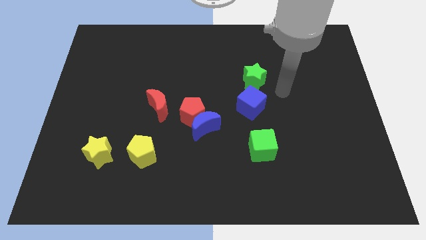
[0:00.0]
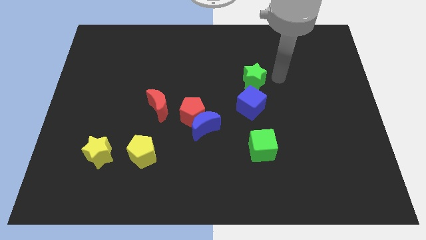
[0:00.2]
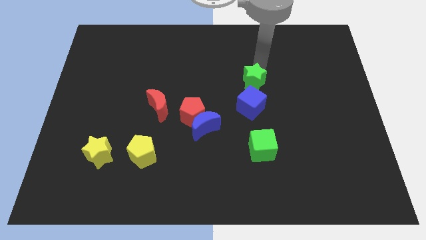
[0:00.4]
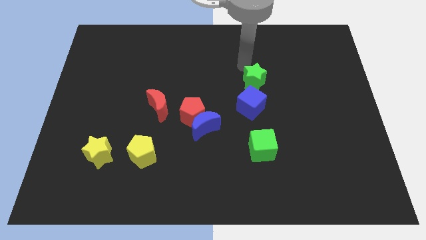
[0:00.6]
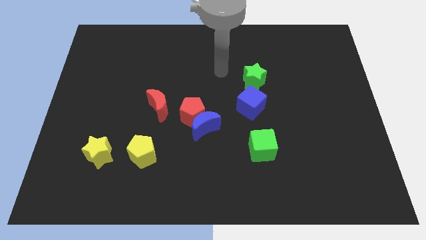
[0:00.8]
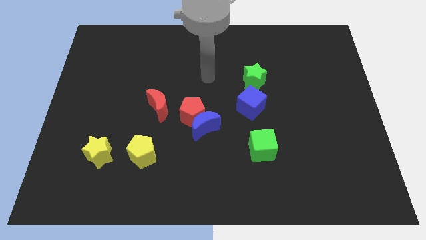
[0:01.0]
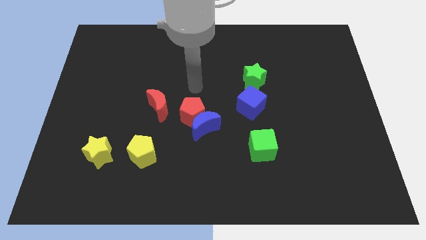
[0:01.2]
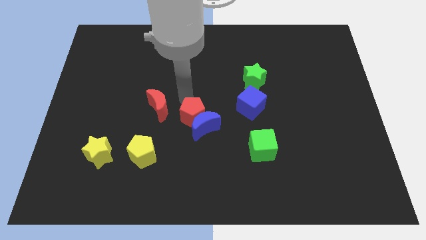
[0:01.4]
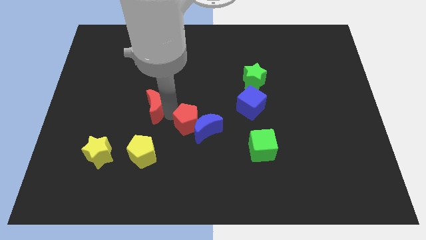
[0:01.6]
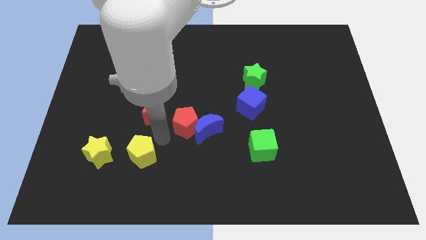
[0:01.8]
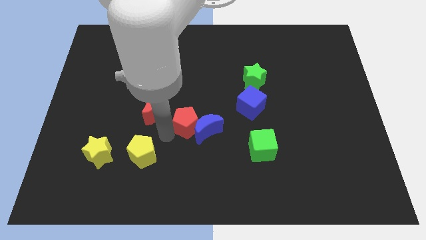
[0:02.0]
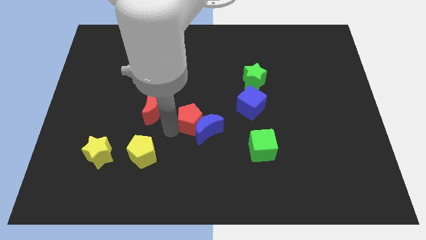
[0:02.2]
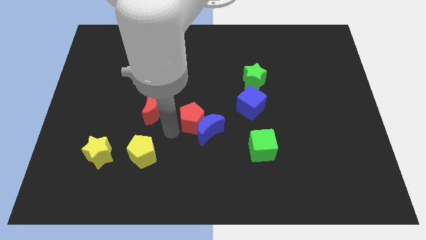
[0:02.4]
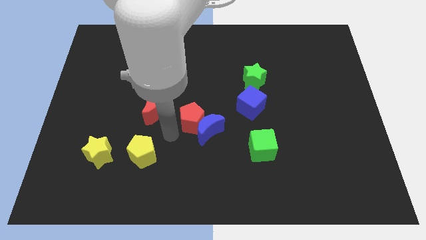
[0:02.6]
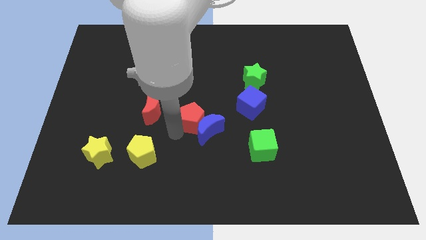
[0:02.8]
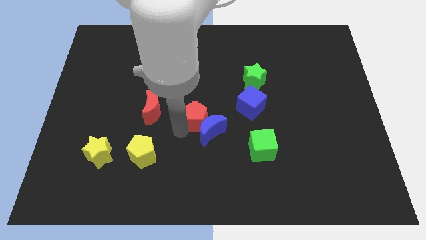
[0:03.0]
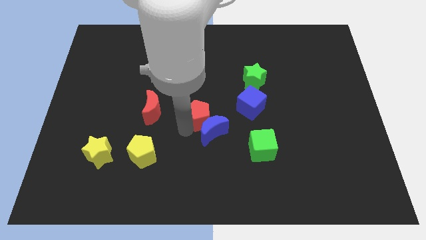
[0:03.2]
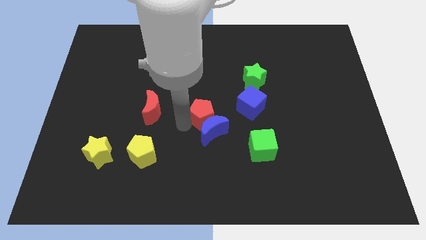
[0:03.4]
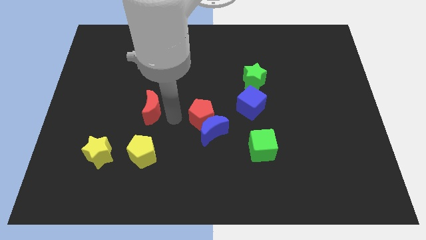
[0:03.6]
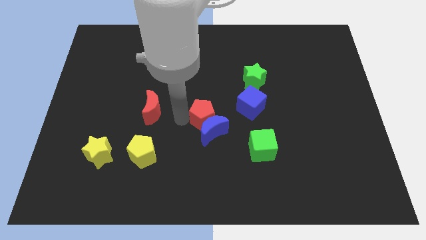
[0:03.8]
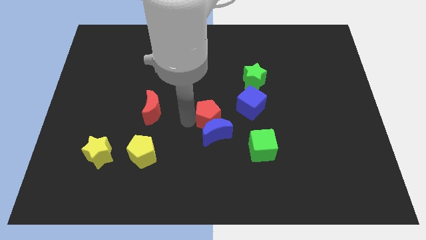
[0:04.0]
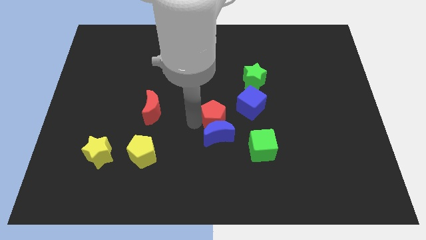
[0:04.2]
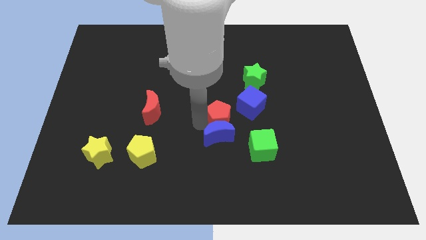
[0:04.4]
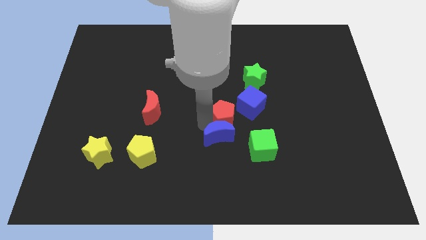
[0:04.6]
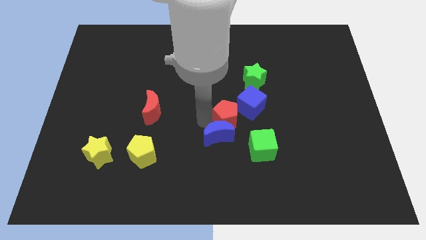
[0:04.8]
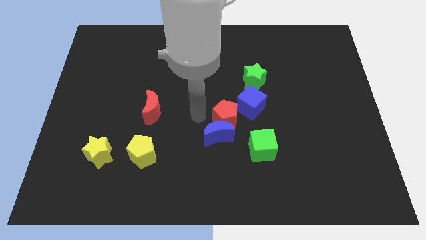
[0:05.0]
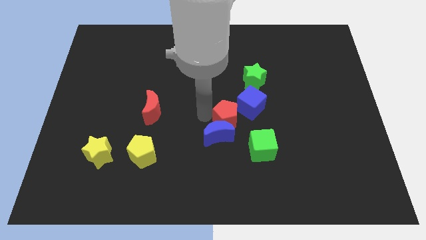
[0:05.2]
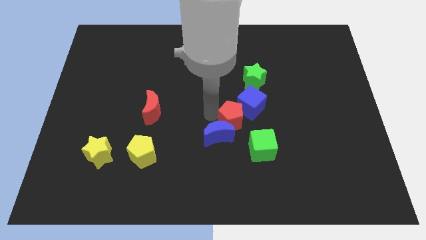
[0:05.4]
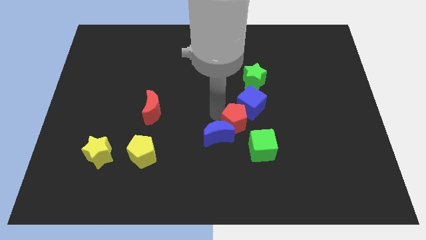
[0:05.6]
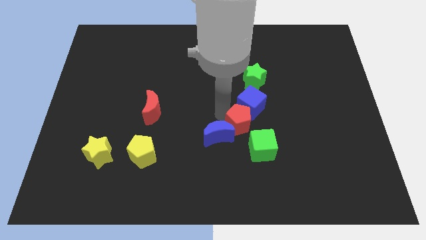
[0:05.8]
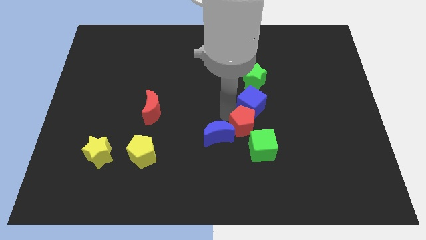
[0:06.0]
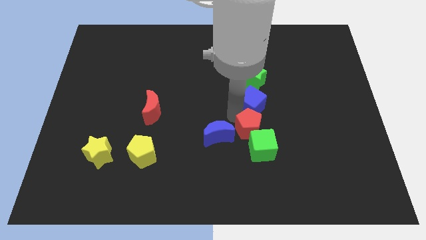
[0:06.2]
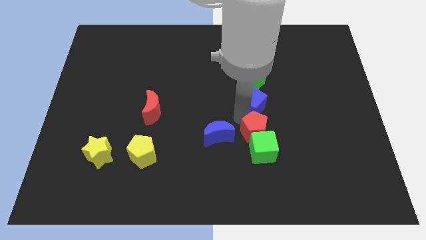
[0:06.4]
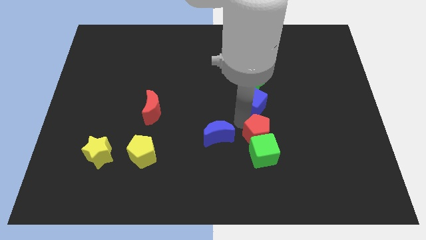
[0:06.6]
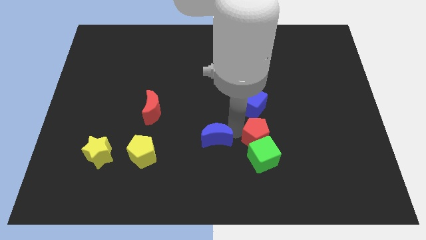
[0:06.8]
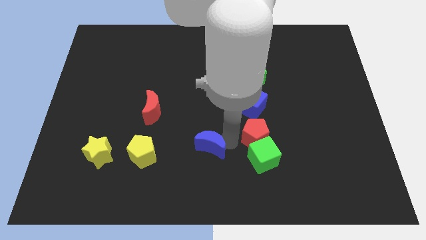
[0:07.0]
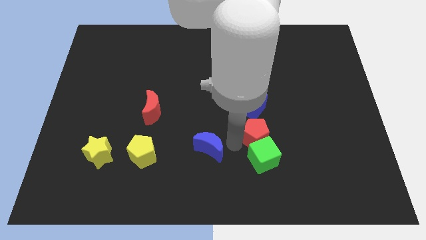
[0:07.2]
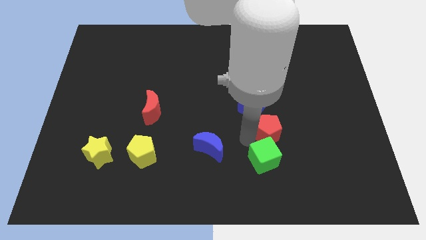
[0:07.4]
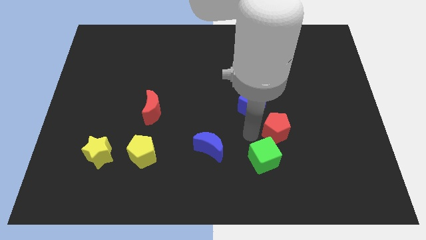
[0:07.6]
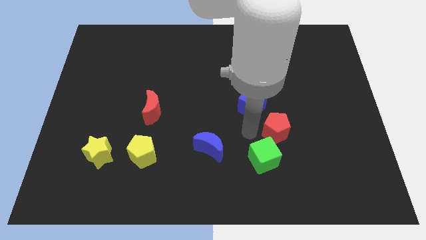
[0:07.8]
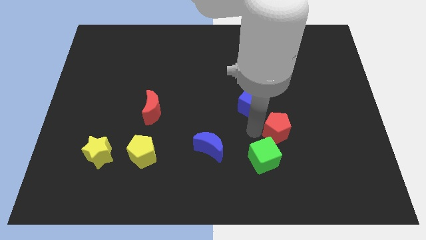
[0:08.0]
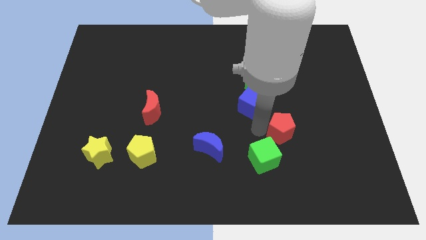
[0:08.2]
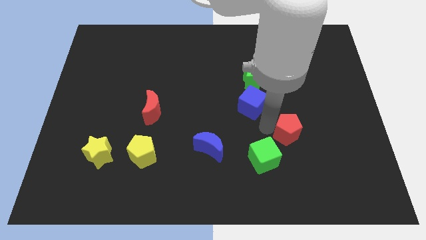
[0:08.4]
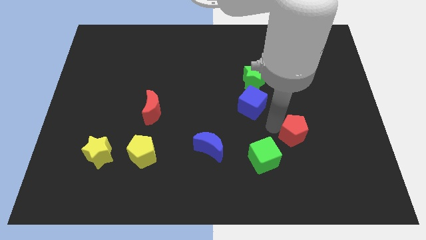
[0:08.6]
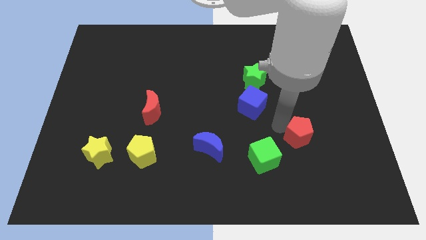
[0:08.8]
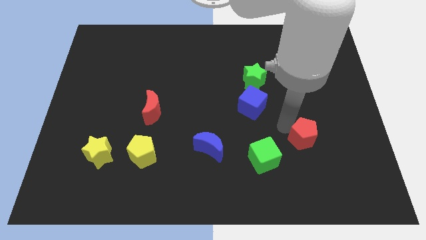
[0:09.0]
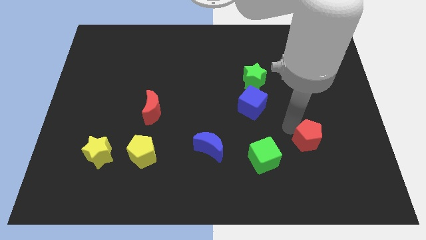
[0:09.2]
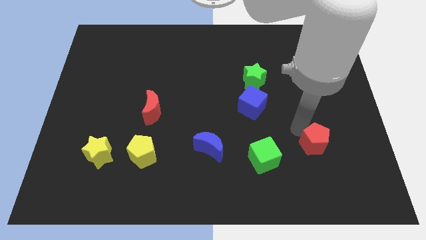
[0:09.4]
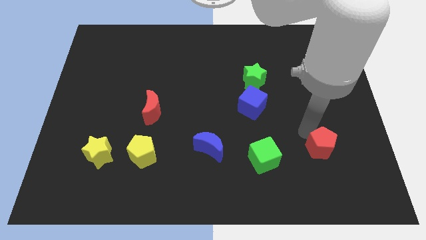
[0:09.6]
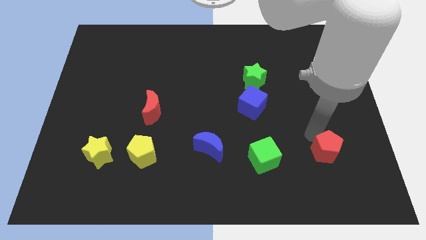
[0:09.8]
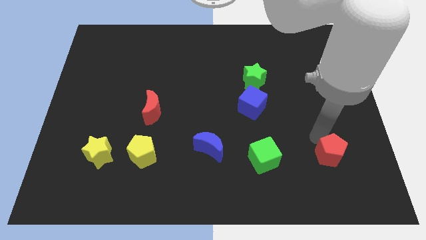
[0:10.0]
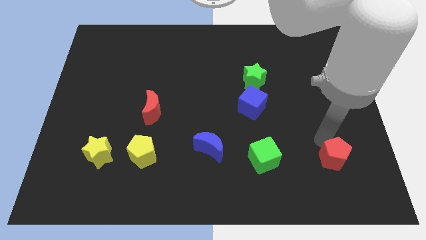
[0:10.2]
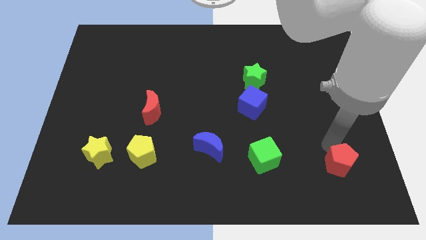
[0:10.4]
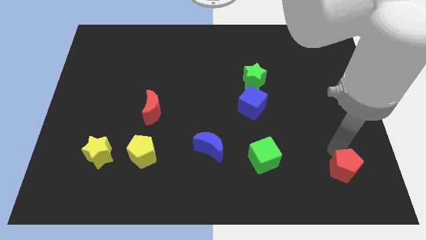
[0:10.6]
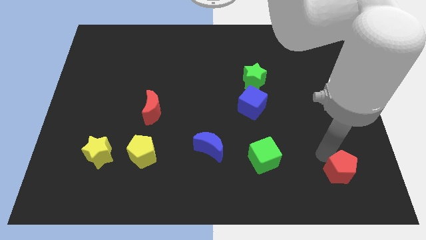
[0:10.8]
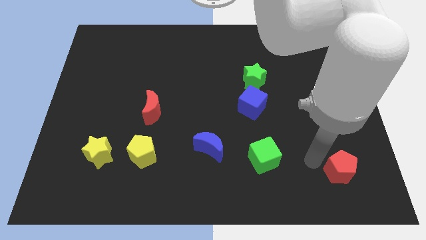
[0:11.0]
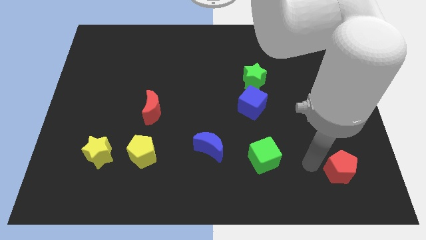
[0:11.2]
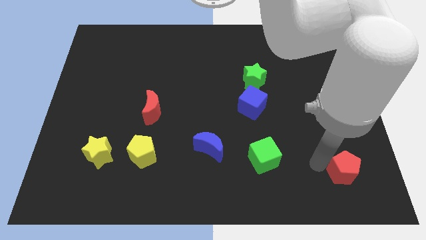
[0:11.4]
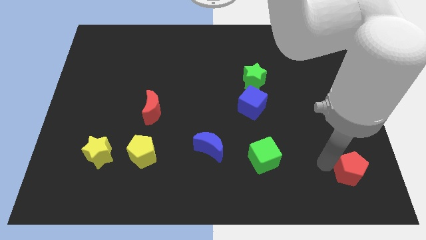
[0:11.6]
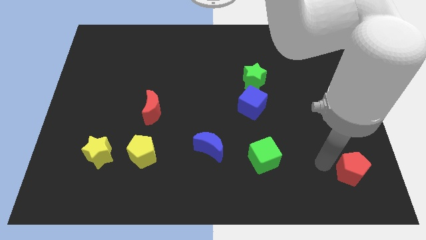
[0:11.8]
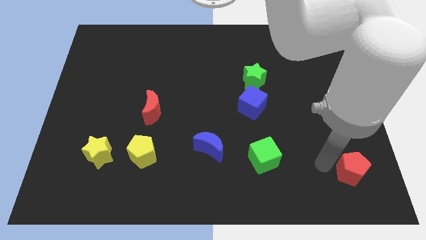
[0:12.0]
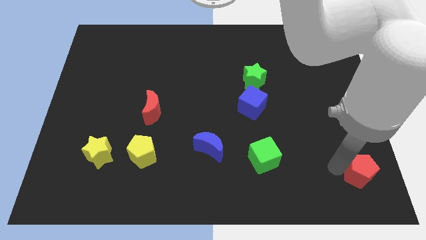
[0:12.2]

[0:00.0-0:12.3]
move the red pentagon to the bottom right corner

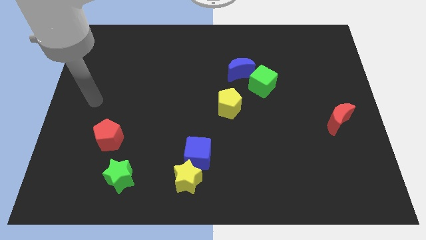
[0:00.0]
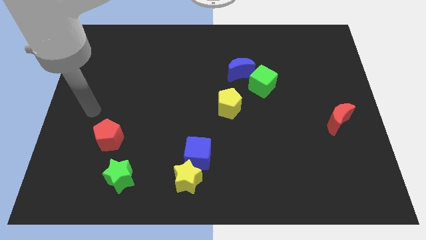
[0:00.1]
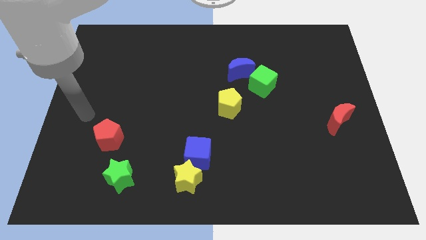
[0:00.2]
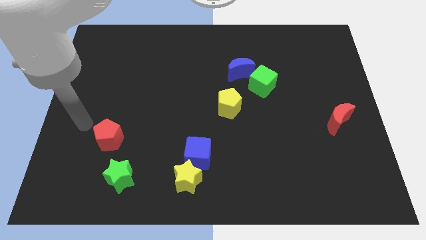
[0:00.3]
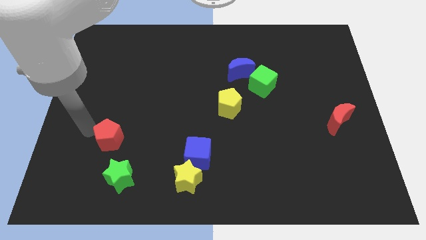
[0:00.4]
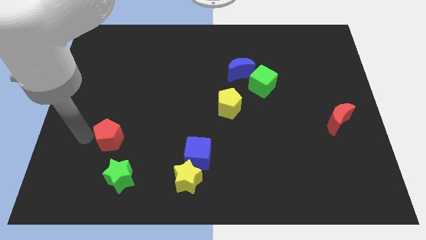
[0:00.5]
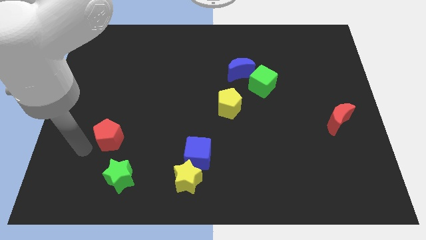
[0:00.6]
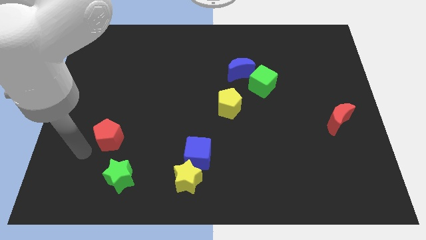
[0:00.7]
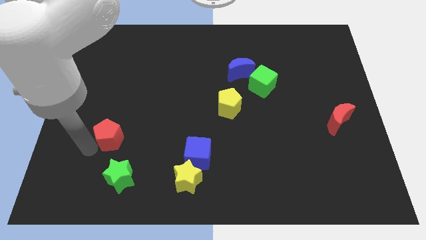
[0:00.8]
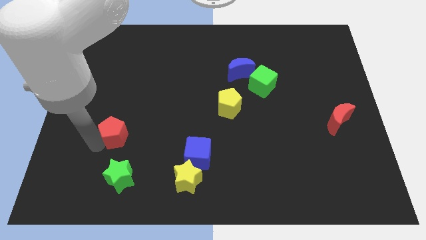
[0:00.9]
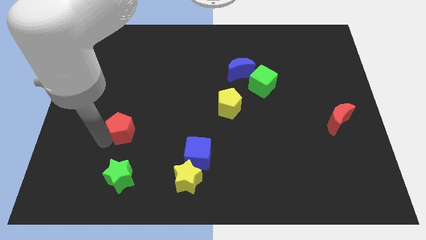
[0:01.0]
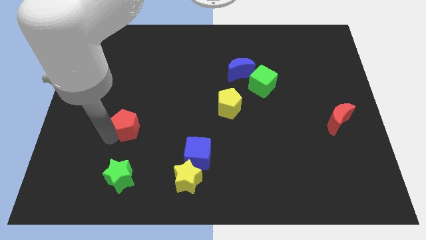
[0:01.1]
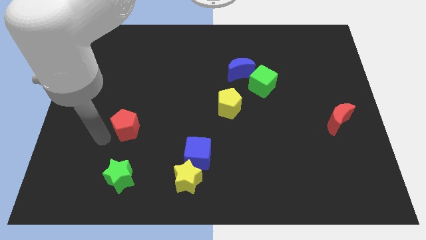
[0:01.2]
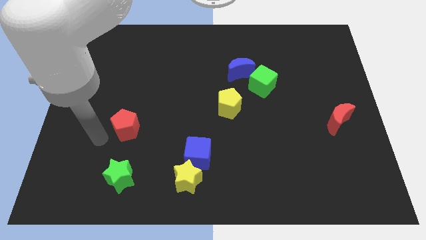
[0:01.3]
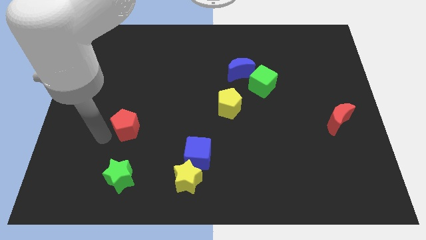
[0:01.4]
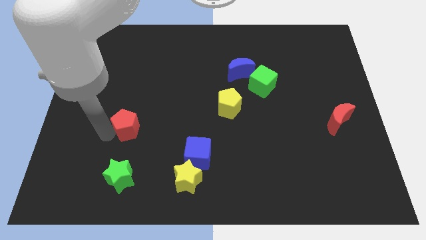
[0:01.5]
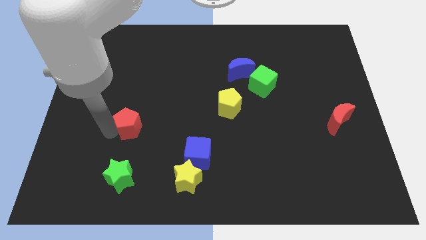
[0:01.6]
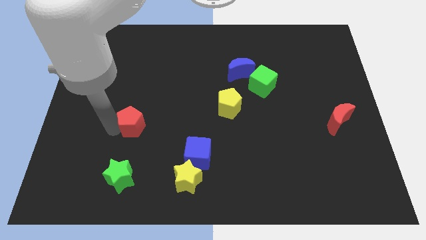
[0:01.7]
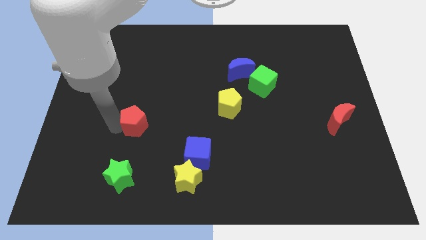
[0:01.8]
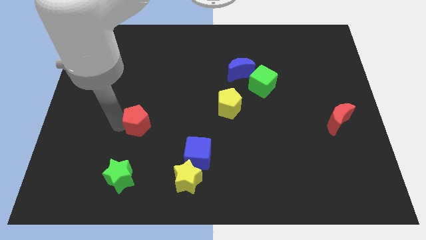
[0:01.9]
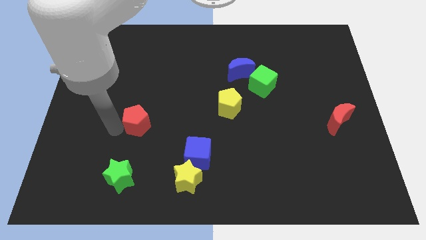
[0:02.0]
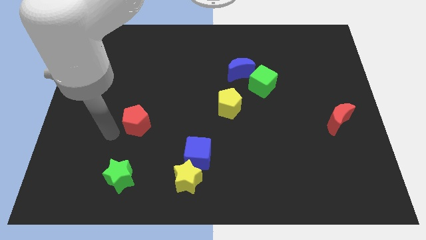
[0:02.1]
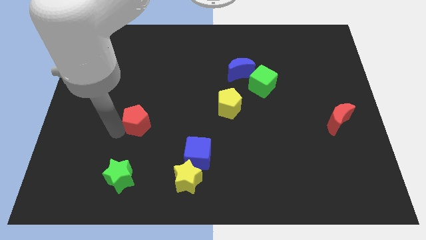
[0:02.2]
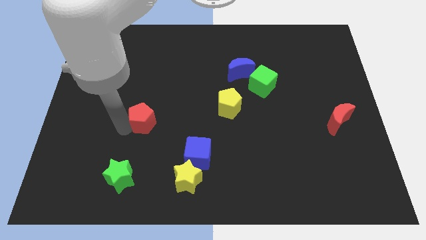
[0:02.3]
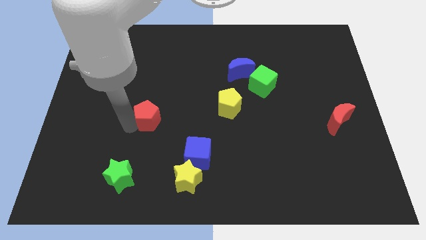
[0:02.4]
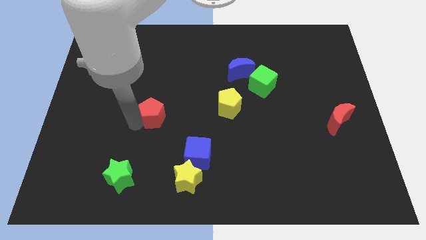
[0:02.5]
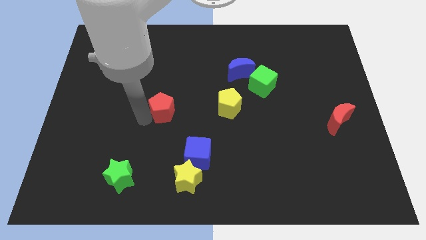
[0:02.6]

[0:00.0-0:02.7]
move the red pentagon to the middle of the board
